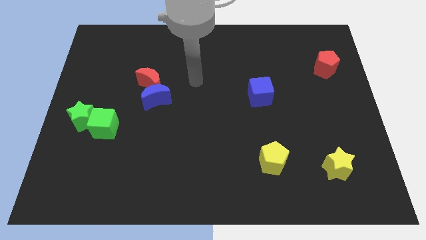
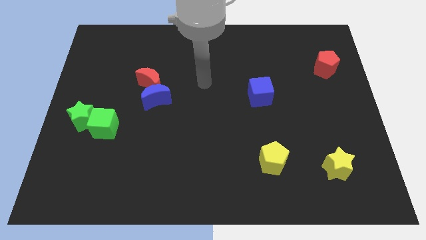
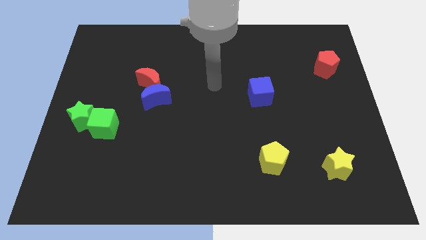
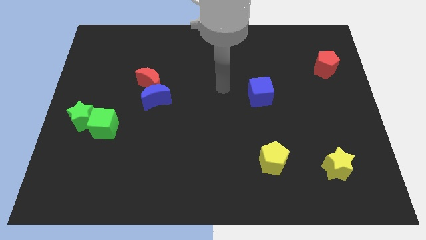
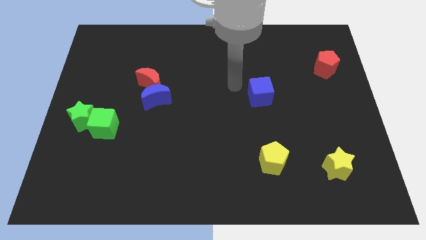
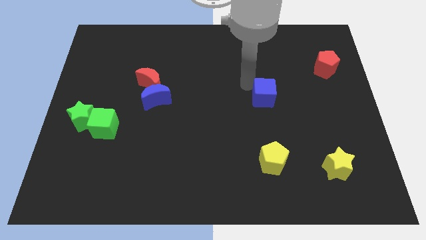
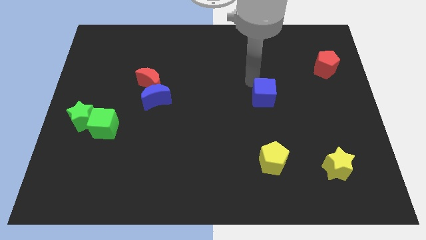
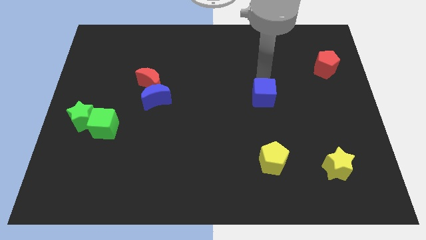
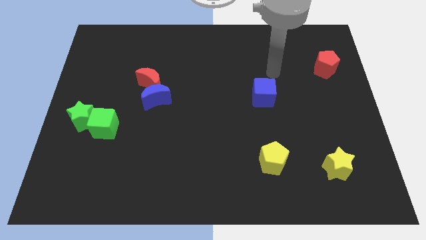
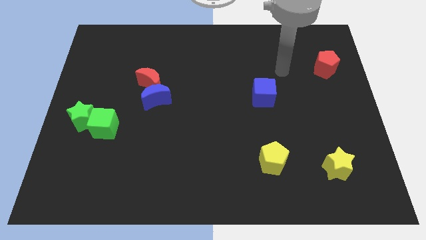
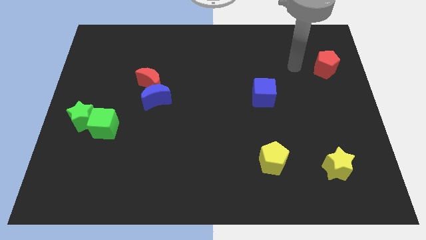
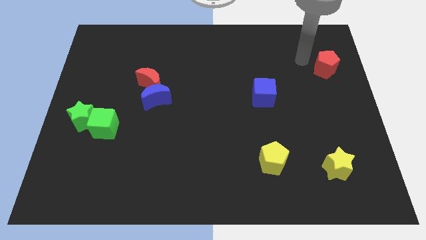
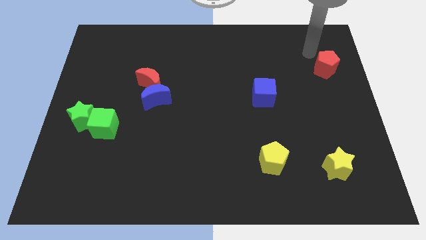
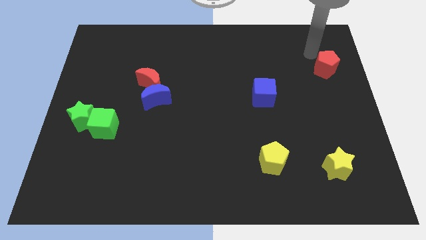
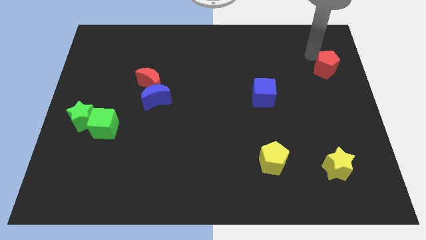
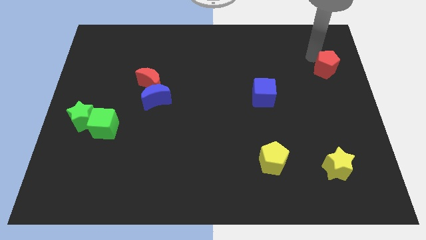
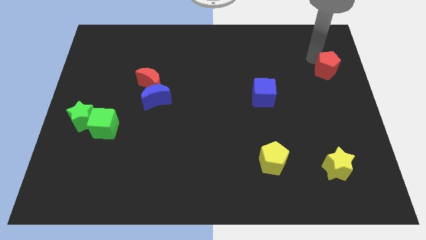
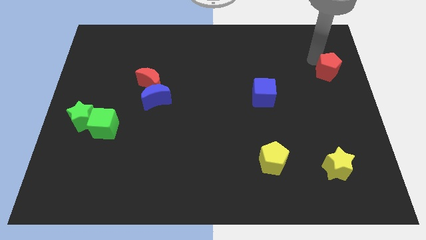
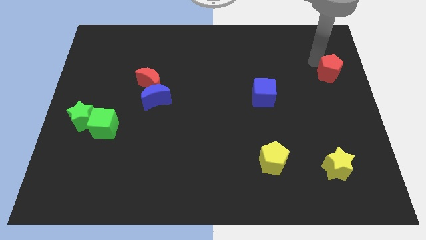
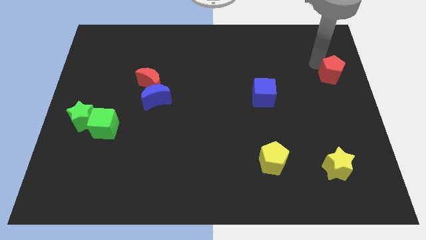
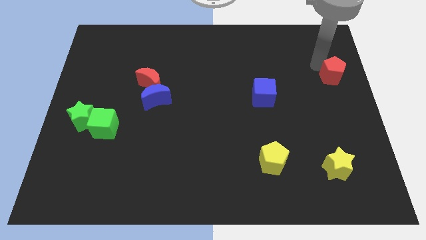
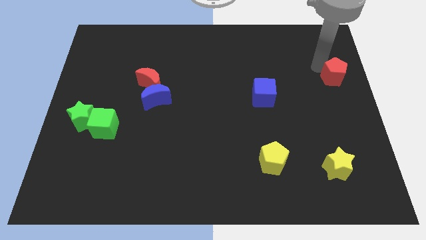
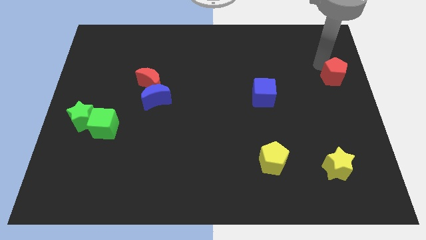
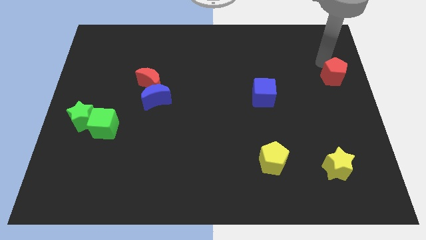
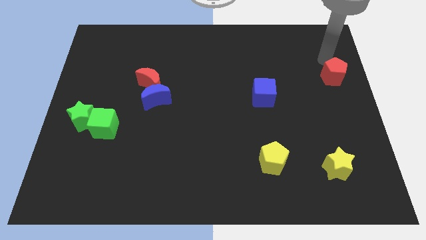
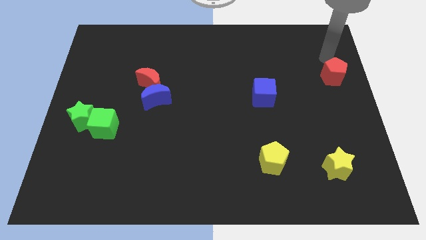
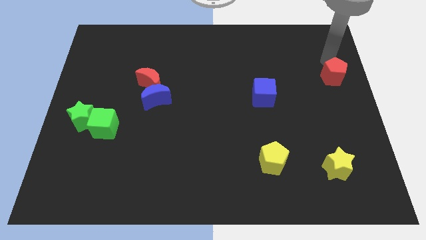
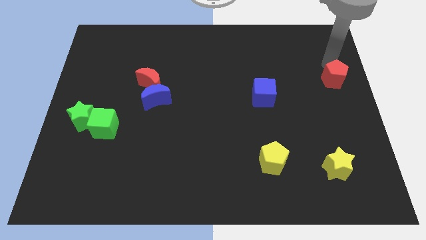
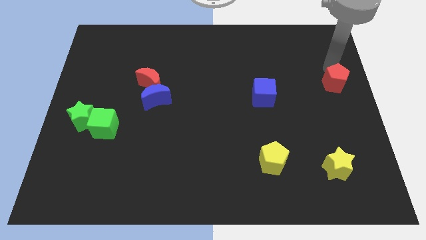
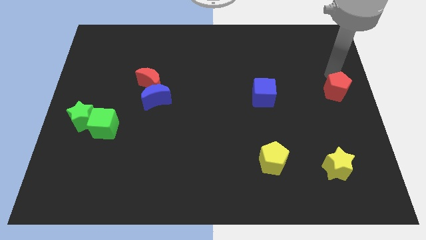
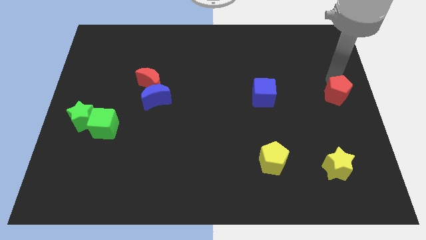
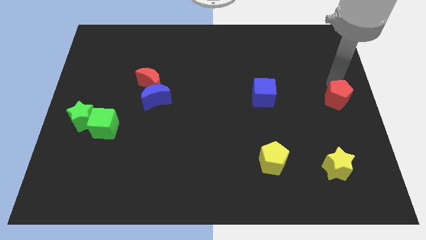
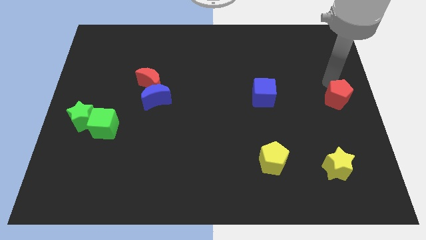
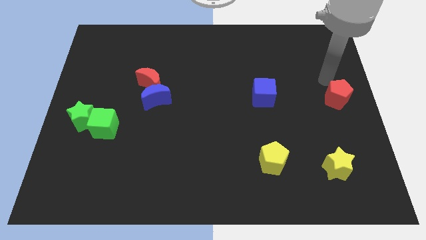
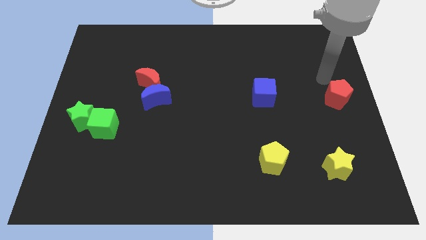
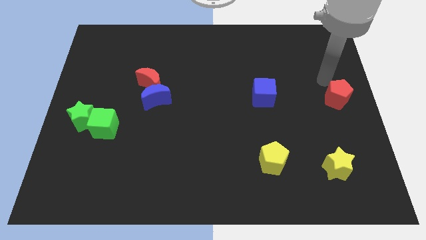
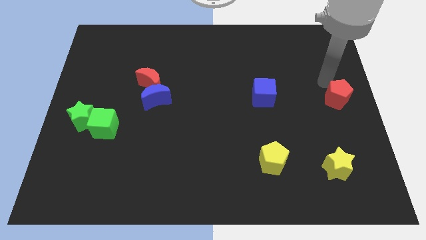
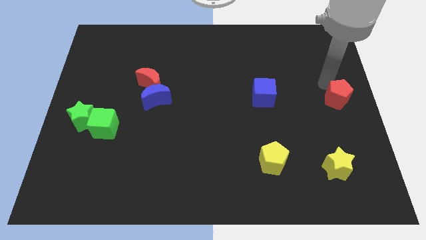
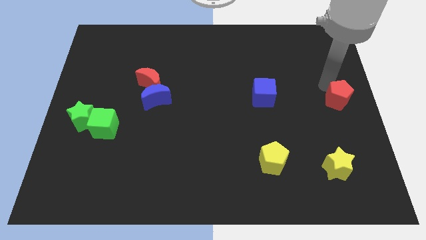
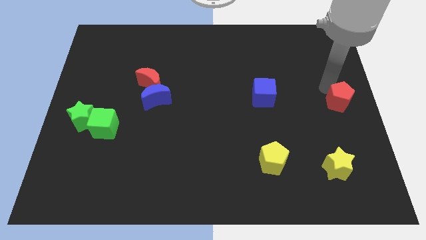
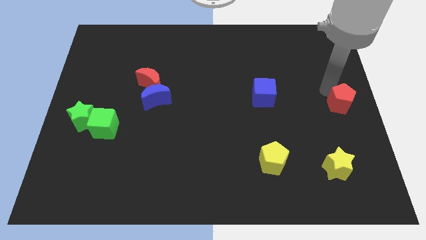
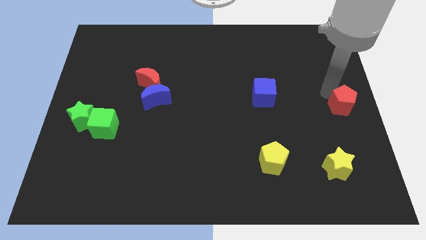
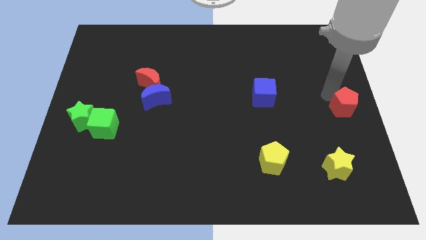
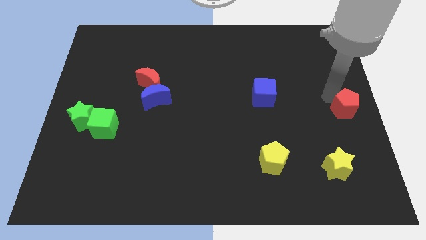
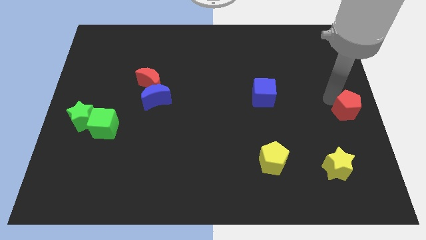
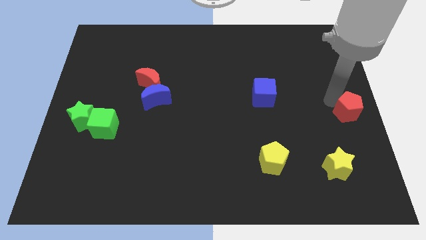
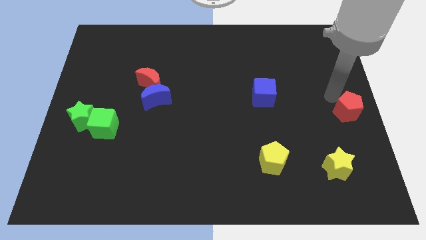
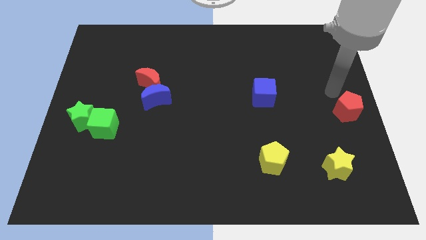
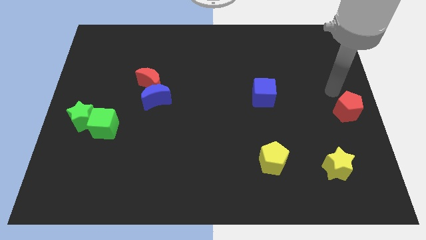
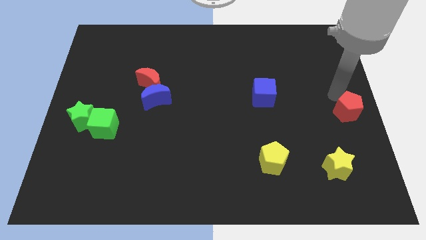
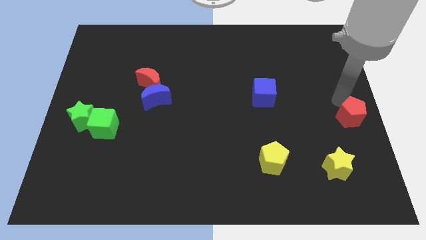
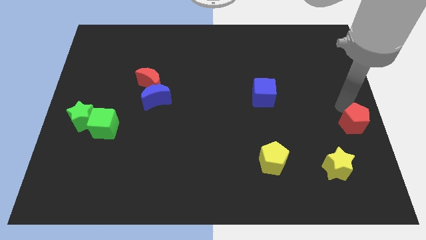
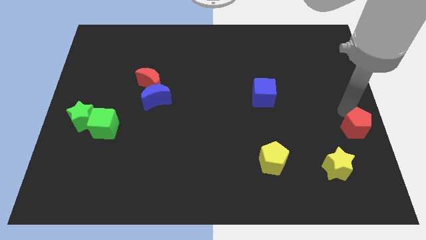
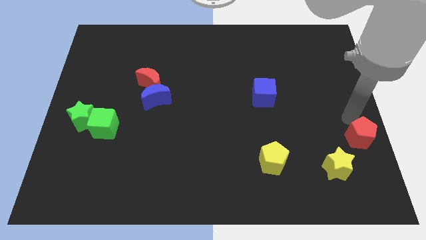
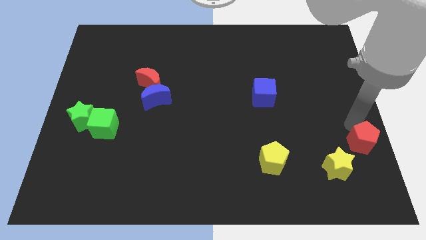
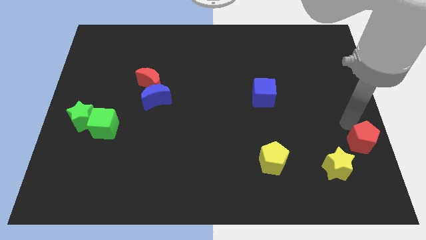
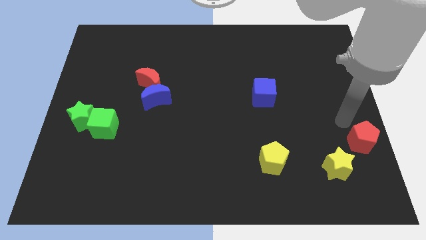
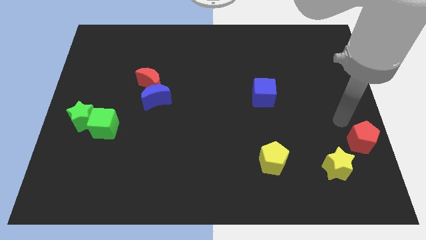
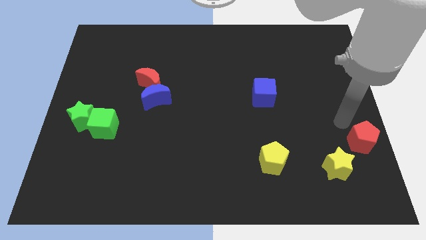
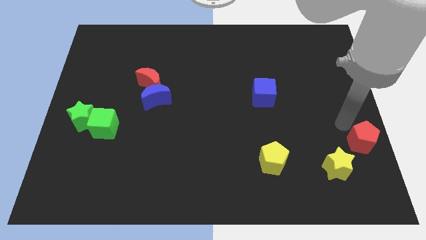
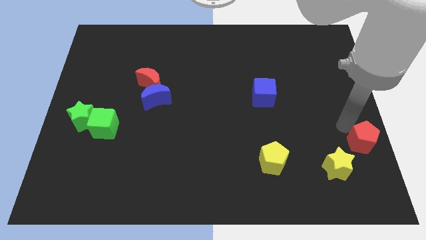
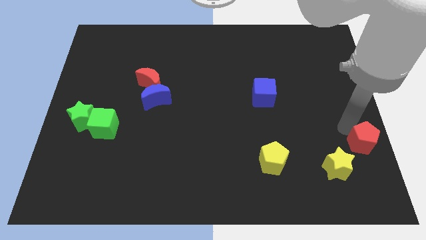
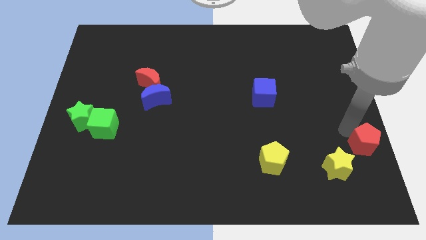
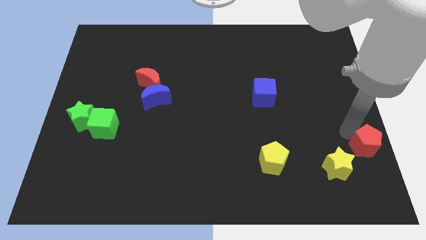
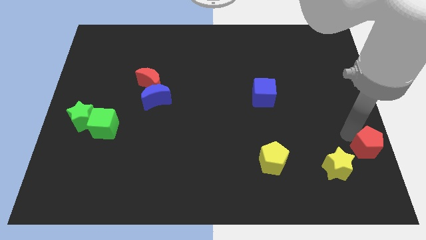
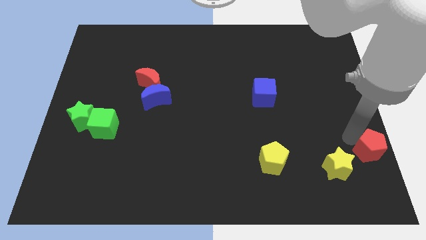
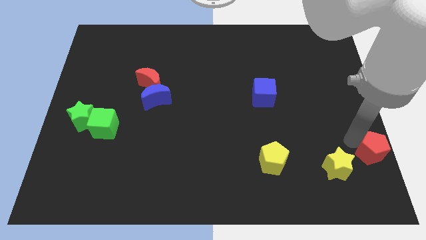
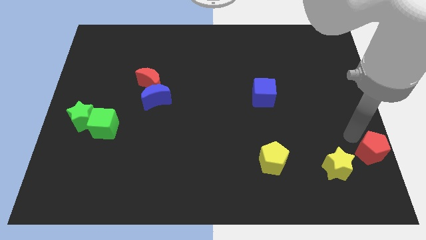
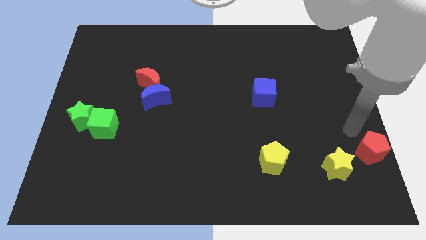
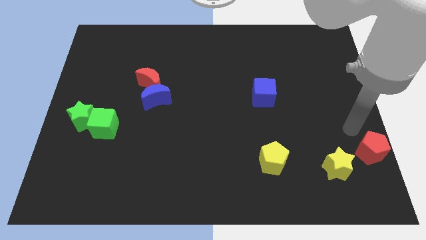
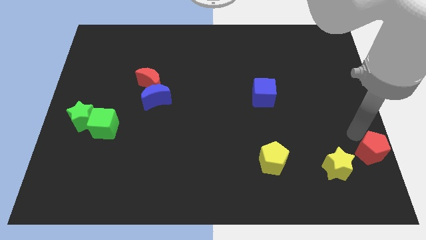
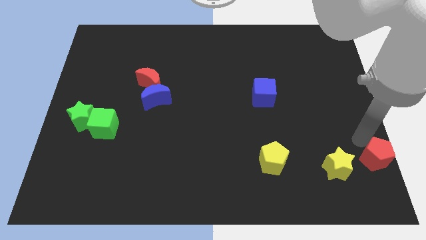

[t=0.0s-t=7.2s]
slide the red pentagon to the bottom right corner

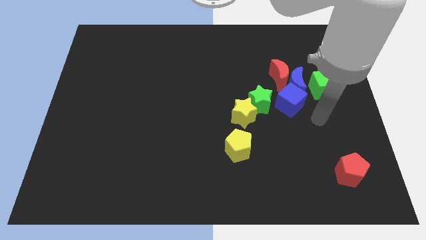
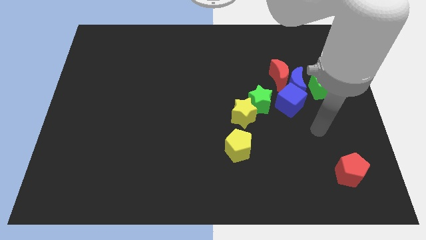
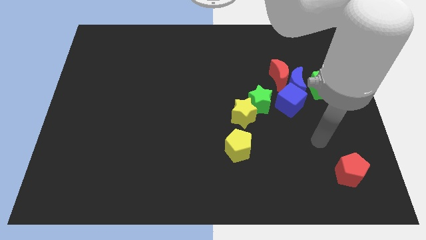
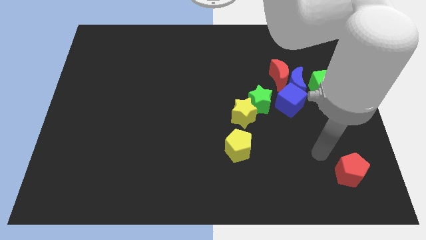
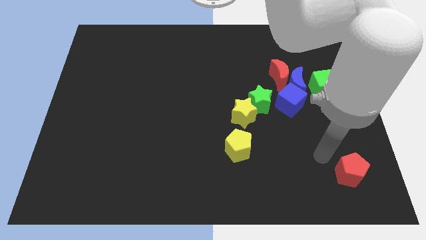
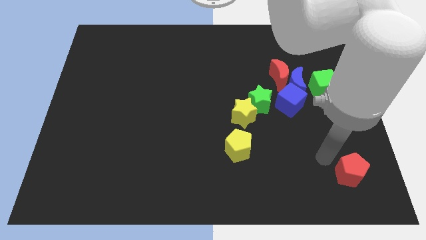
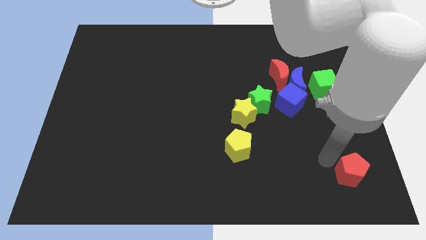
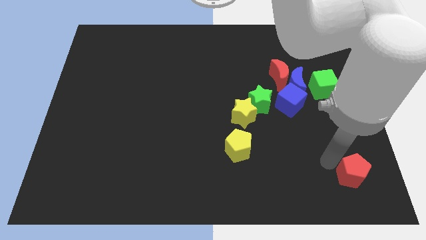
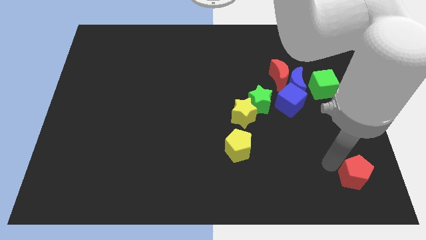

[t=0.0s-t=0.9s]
slide the red pentagon to the bottom right of the board
